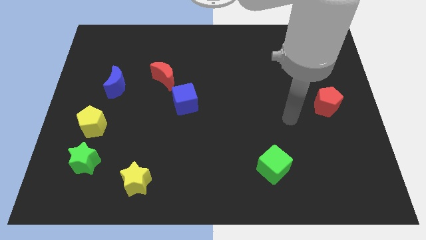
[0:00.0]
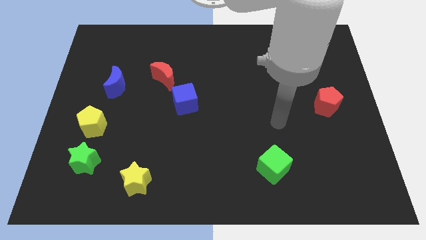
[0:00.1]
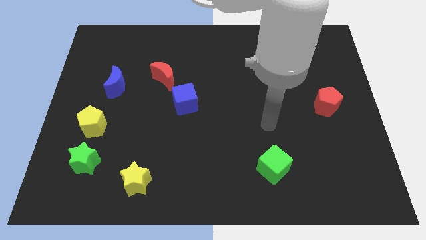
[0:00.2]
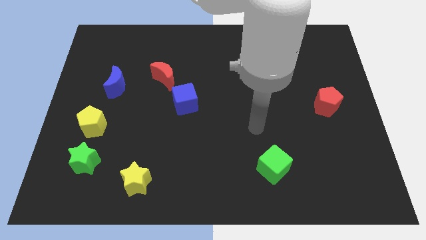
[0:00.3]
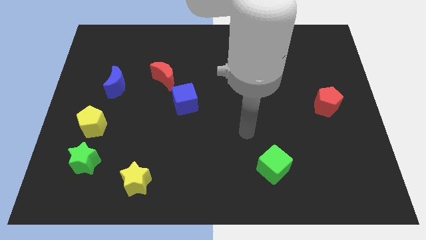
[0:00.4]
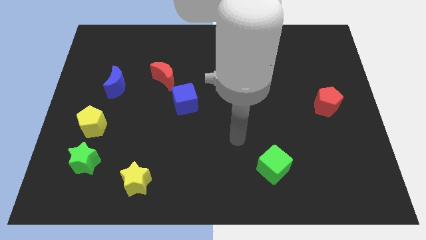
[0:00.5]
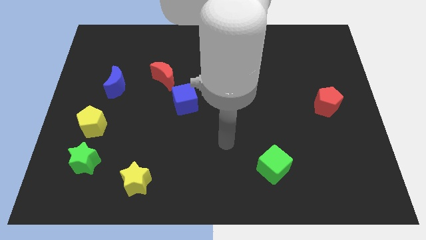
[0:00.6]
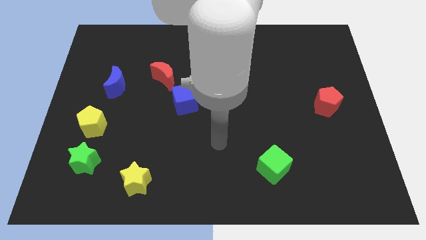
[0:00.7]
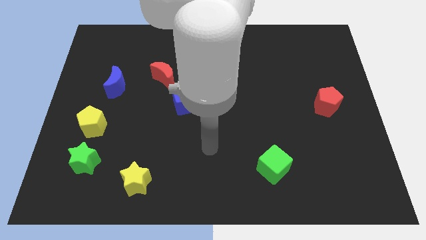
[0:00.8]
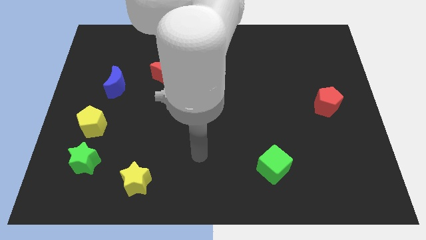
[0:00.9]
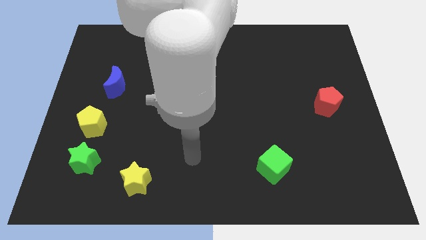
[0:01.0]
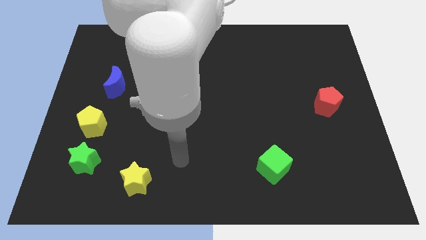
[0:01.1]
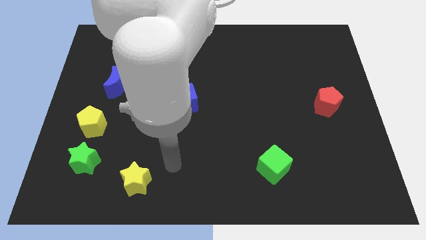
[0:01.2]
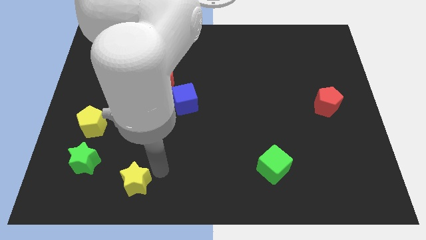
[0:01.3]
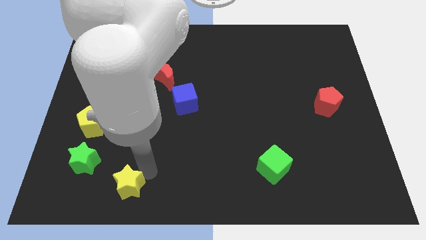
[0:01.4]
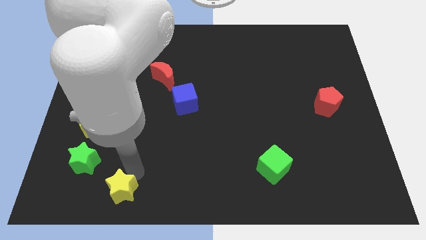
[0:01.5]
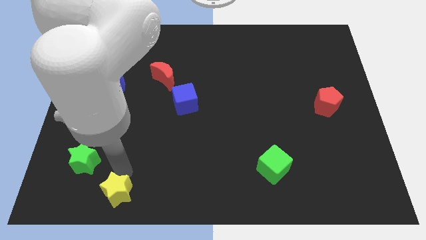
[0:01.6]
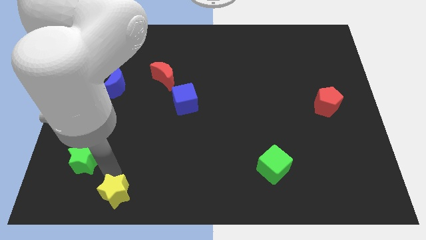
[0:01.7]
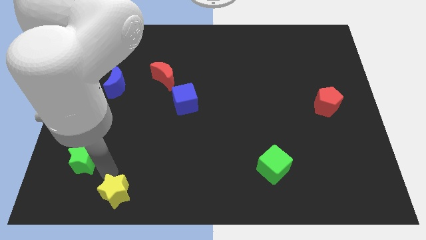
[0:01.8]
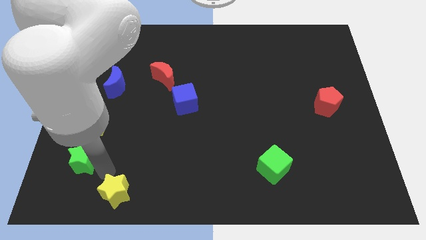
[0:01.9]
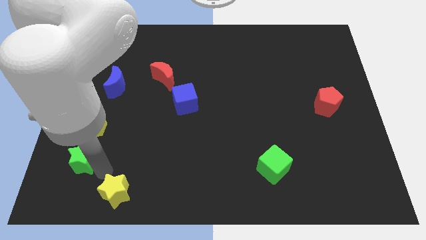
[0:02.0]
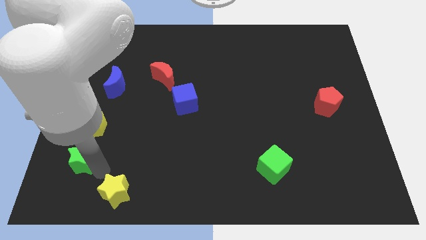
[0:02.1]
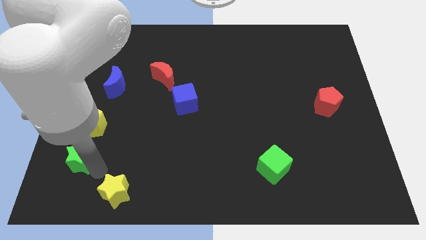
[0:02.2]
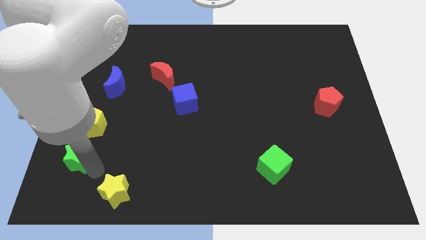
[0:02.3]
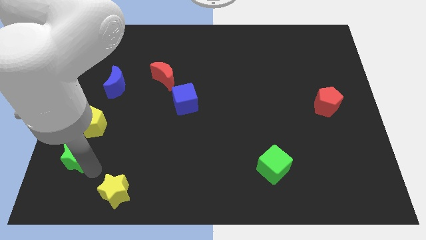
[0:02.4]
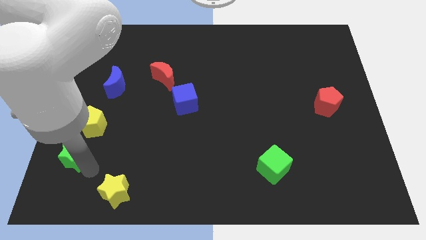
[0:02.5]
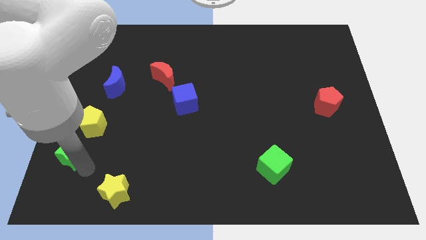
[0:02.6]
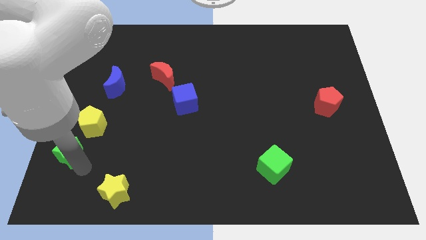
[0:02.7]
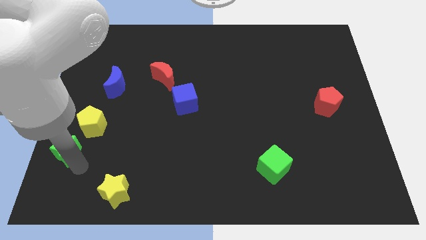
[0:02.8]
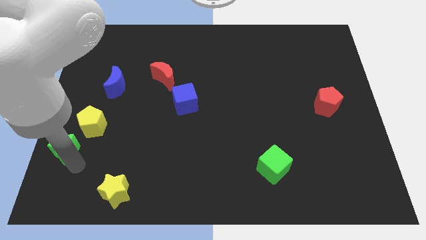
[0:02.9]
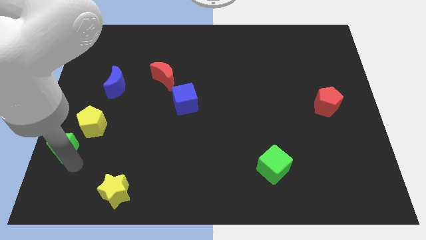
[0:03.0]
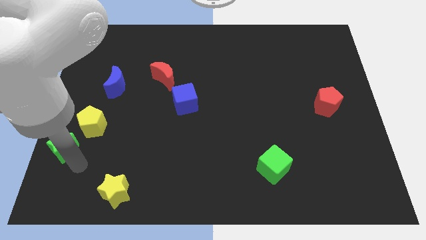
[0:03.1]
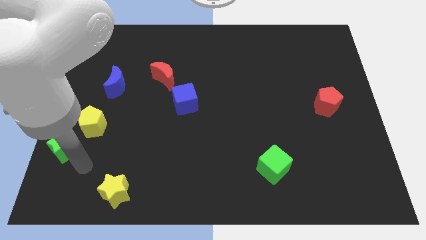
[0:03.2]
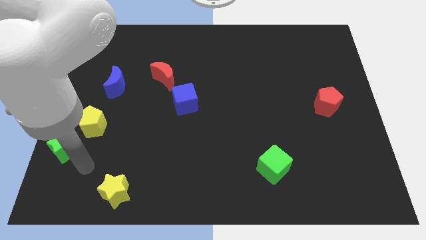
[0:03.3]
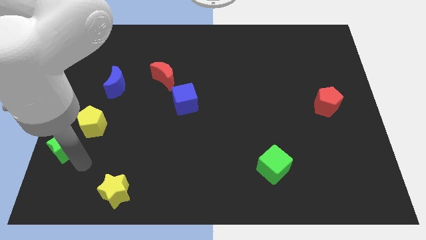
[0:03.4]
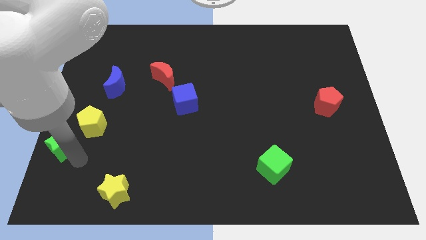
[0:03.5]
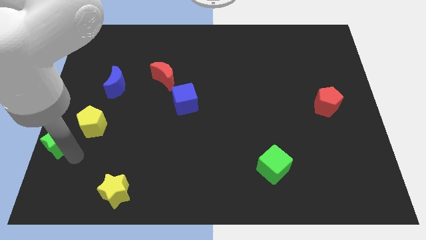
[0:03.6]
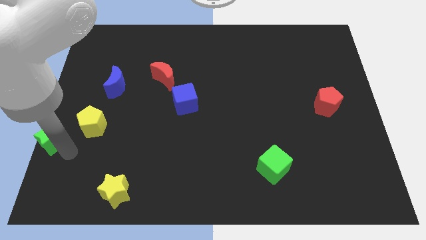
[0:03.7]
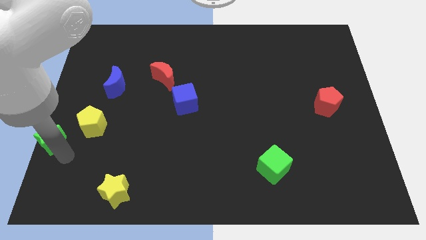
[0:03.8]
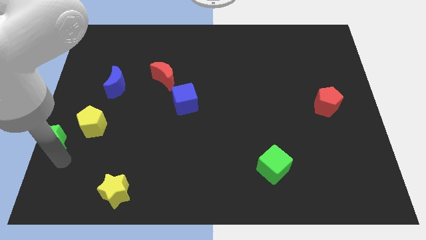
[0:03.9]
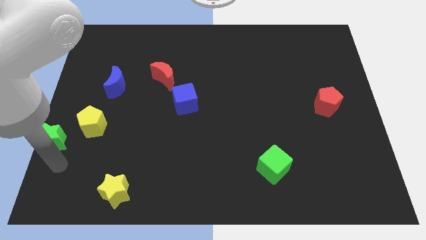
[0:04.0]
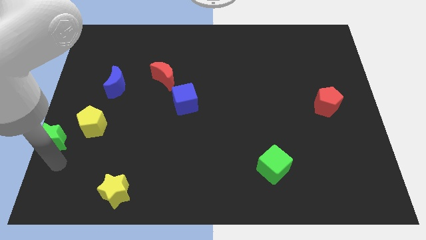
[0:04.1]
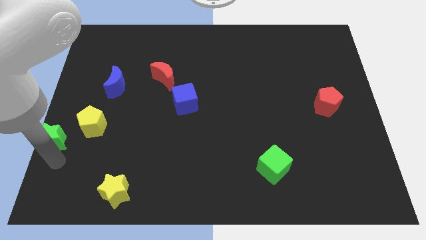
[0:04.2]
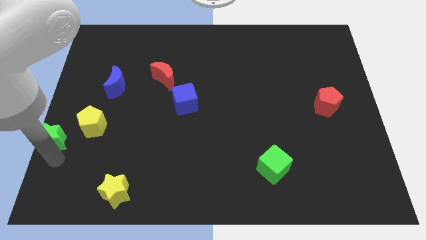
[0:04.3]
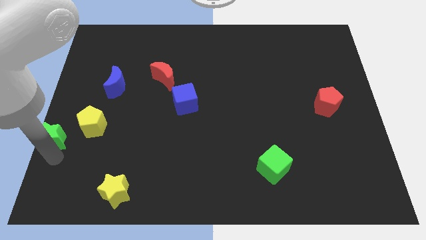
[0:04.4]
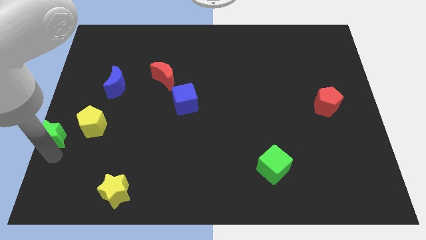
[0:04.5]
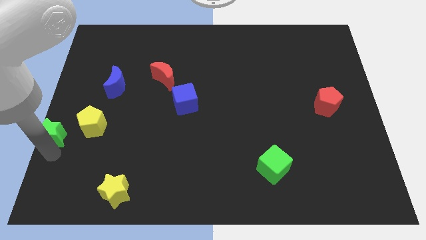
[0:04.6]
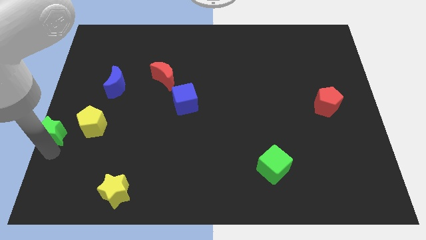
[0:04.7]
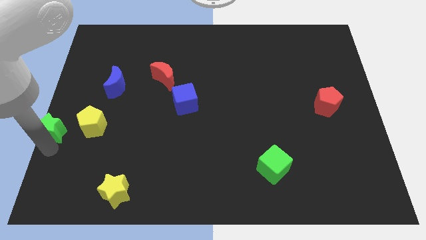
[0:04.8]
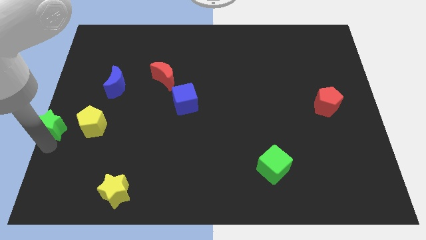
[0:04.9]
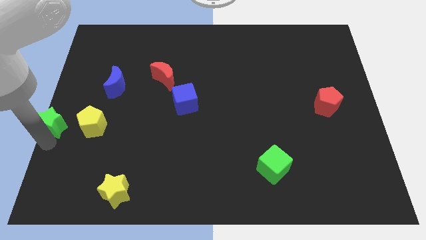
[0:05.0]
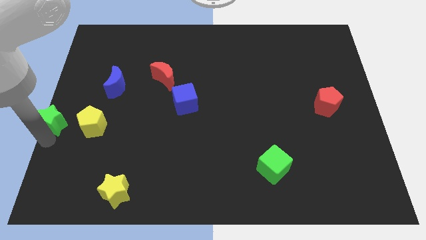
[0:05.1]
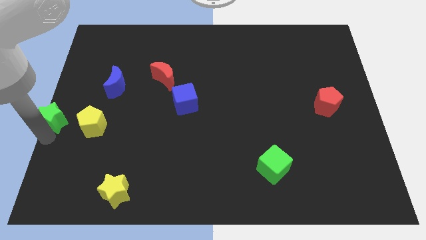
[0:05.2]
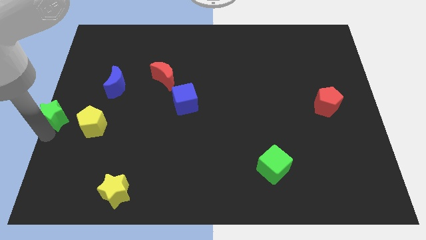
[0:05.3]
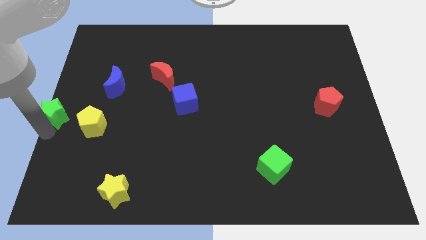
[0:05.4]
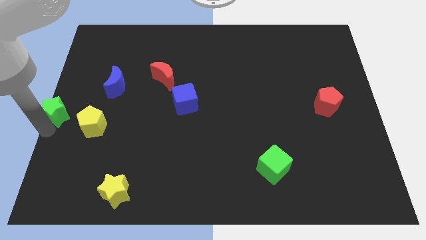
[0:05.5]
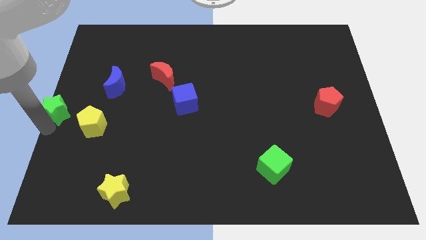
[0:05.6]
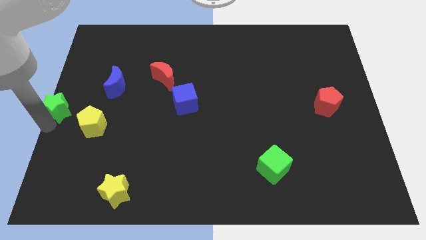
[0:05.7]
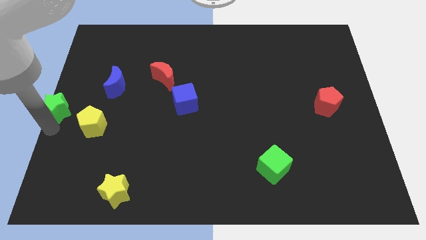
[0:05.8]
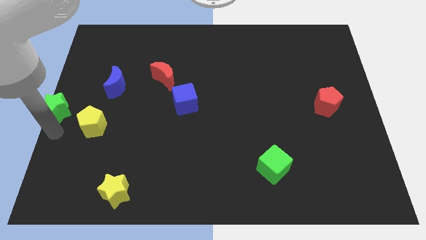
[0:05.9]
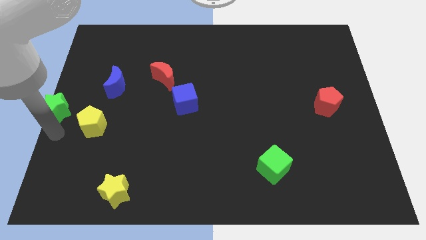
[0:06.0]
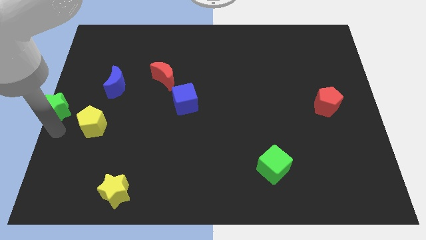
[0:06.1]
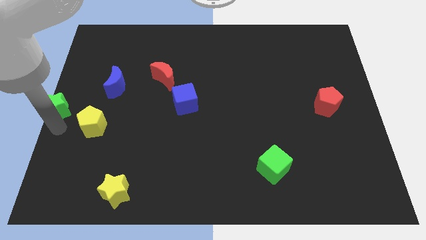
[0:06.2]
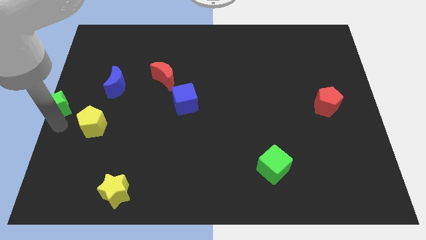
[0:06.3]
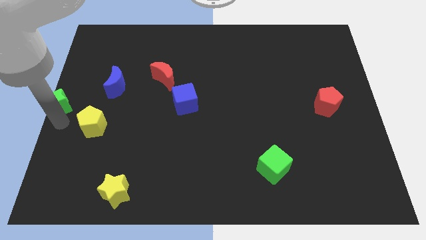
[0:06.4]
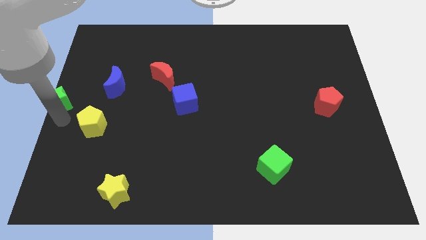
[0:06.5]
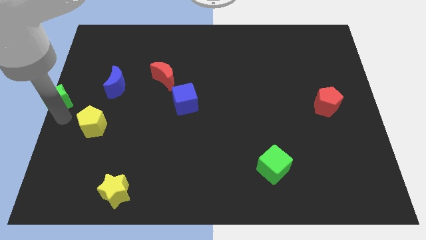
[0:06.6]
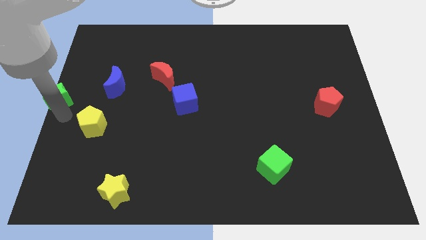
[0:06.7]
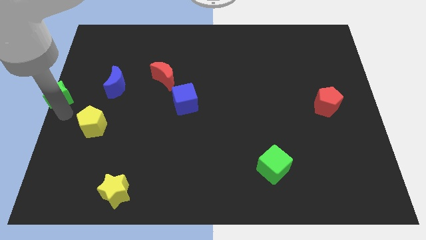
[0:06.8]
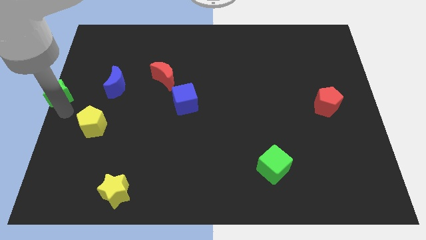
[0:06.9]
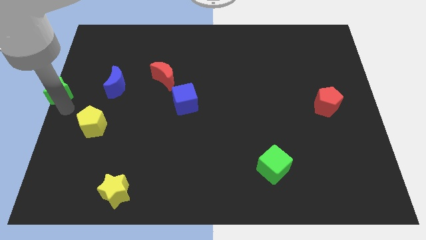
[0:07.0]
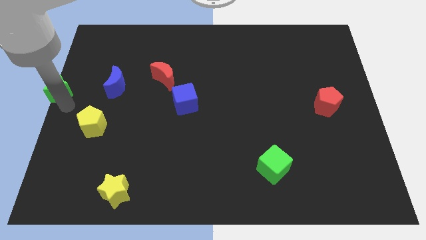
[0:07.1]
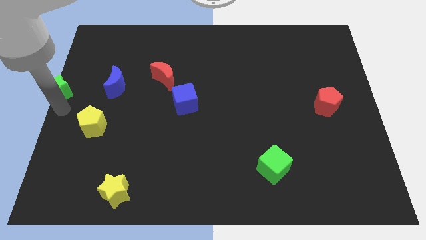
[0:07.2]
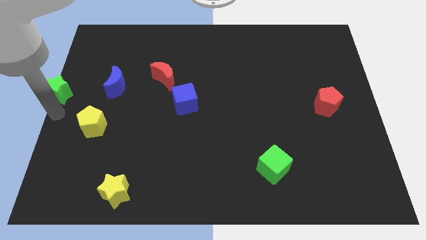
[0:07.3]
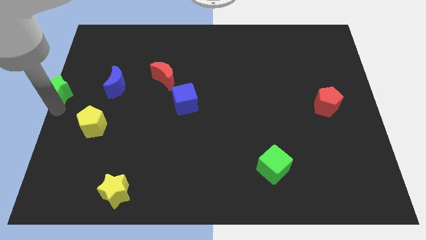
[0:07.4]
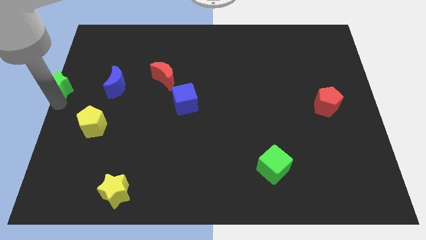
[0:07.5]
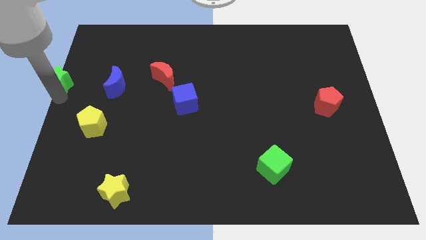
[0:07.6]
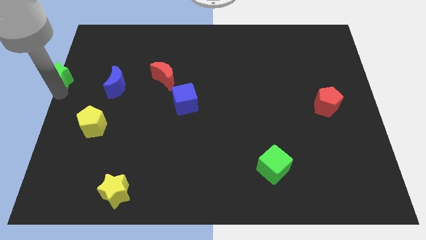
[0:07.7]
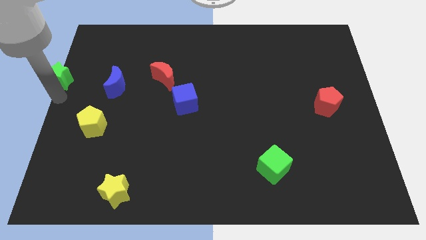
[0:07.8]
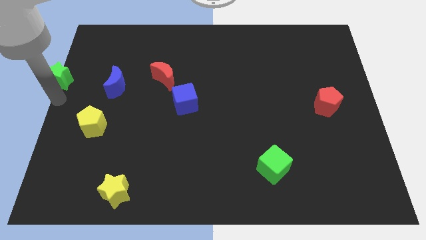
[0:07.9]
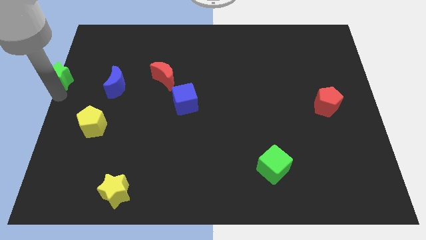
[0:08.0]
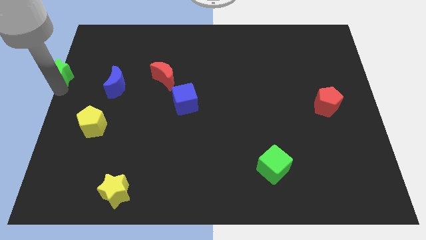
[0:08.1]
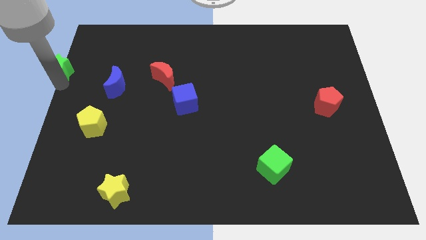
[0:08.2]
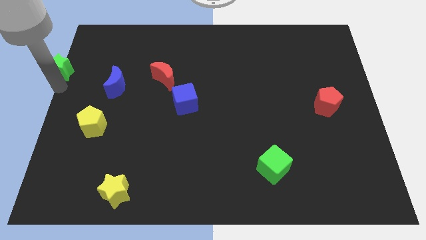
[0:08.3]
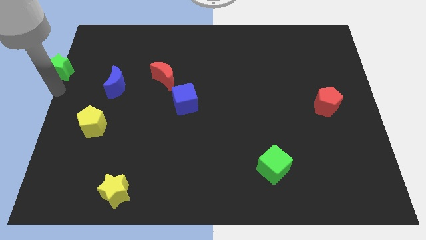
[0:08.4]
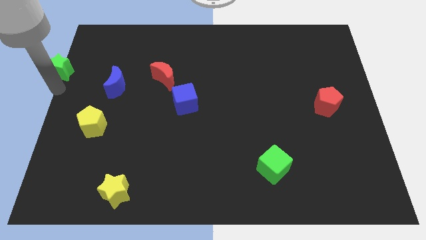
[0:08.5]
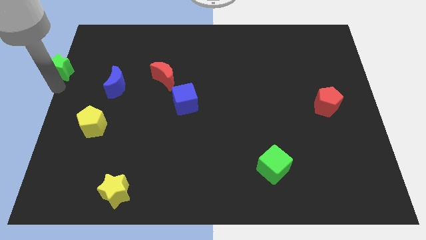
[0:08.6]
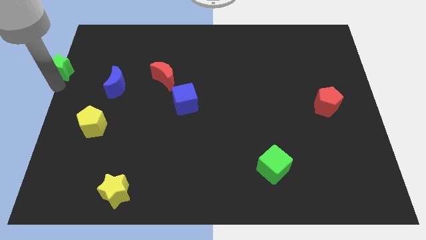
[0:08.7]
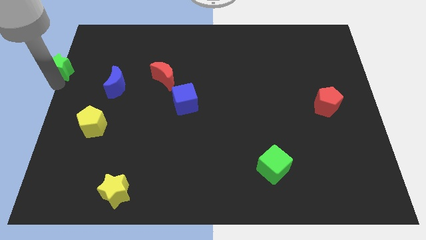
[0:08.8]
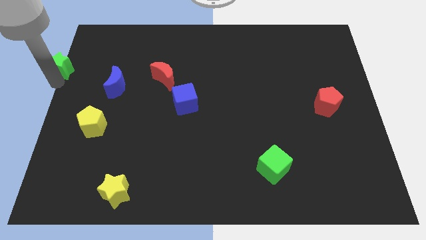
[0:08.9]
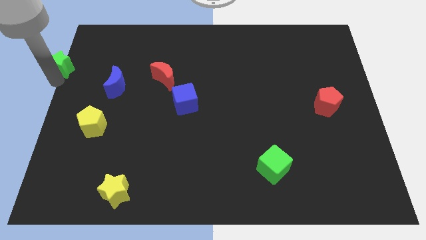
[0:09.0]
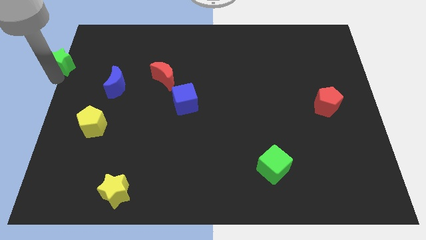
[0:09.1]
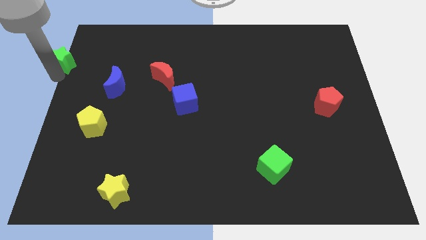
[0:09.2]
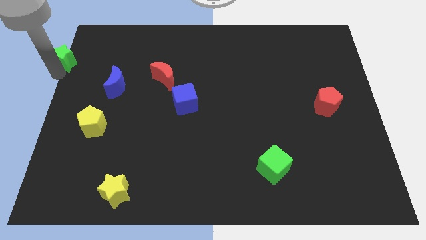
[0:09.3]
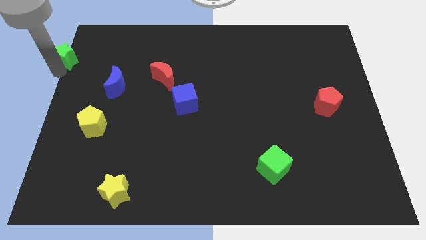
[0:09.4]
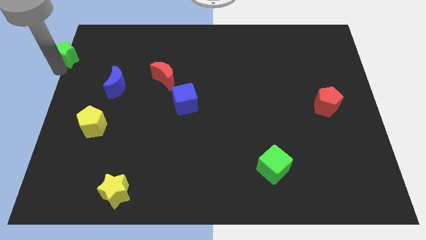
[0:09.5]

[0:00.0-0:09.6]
push the green star to the top left of the board
